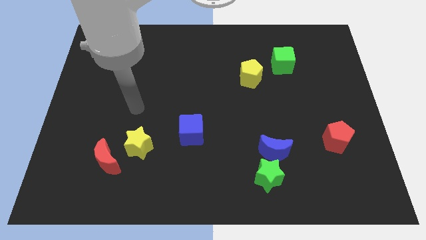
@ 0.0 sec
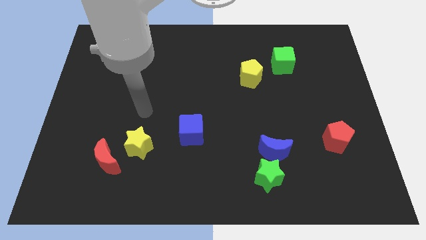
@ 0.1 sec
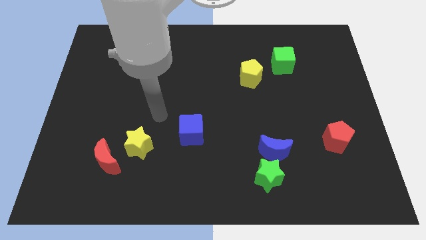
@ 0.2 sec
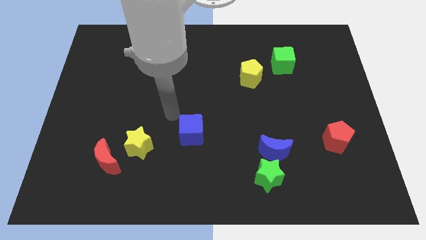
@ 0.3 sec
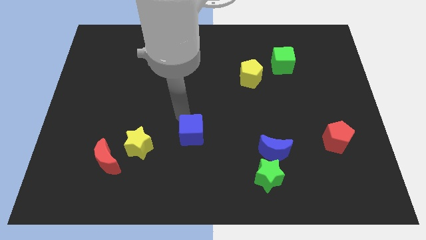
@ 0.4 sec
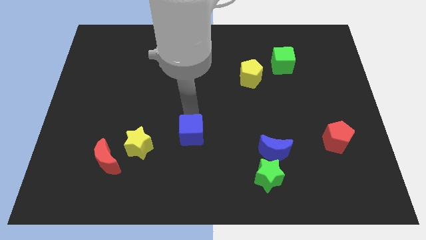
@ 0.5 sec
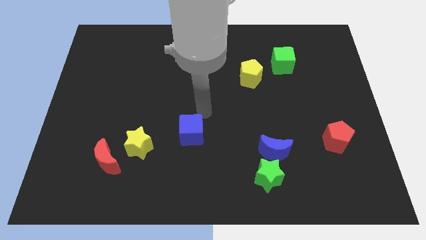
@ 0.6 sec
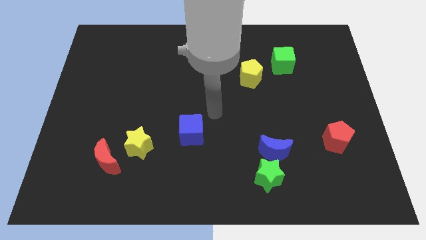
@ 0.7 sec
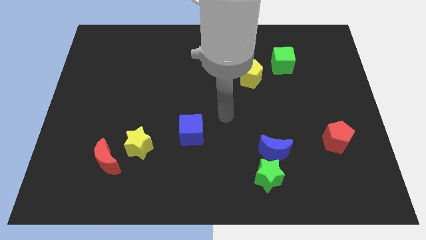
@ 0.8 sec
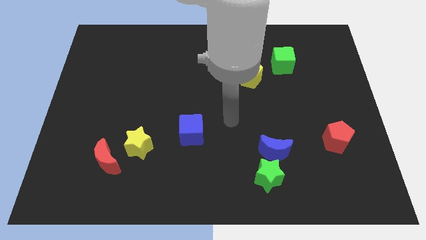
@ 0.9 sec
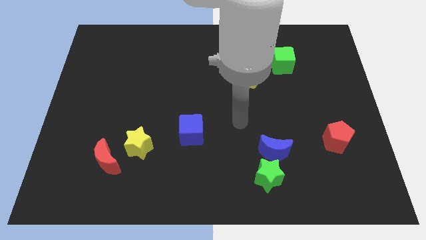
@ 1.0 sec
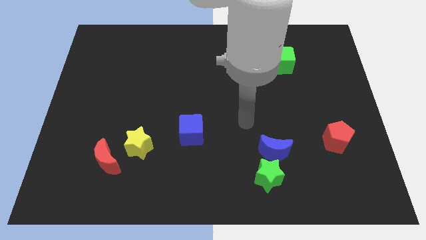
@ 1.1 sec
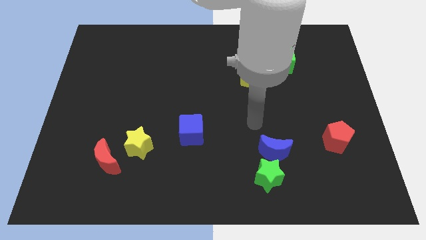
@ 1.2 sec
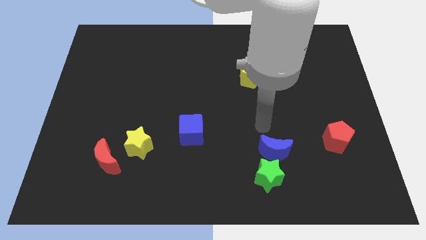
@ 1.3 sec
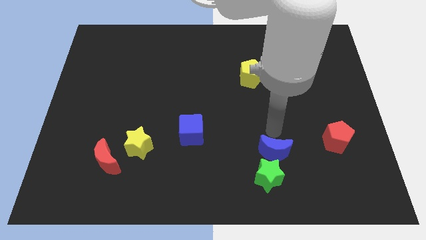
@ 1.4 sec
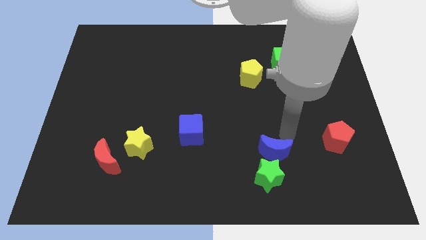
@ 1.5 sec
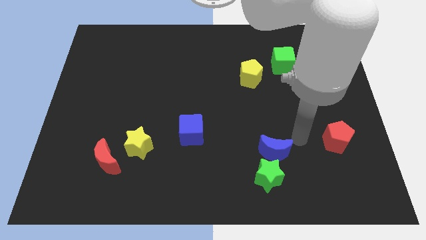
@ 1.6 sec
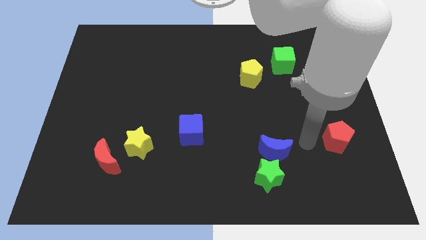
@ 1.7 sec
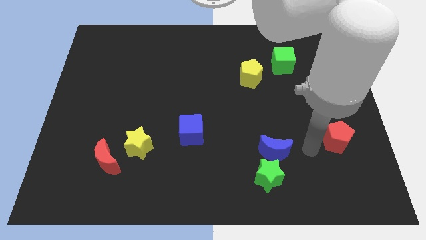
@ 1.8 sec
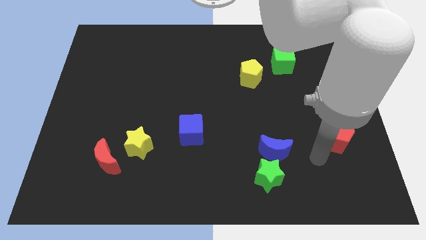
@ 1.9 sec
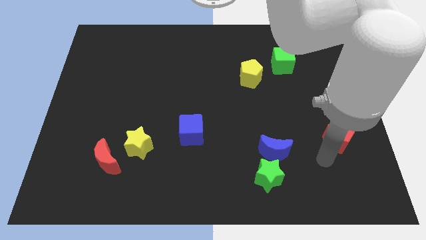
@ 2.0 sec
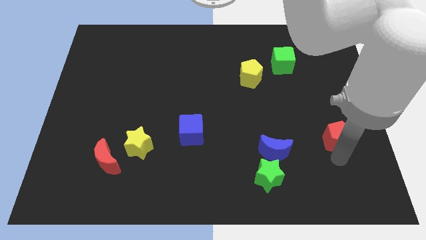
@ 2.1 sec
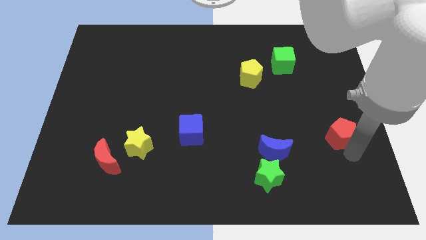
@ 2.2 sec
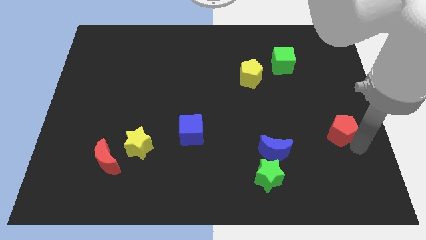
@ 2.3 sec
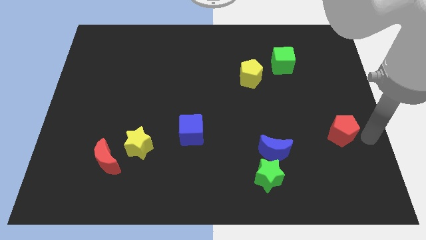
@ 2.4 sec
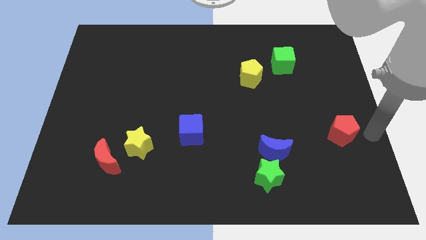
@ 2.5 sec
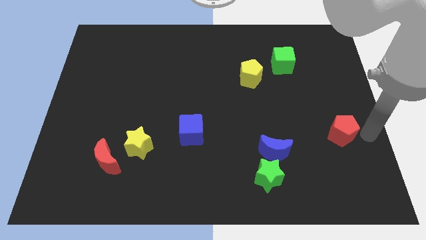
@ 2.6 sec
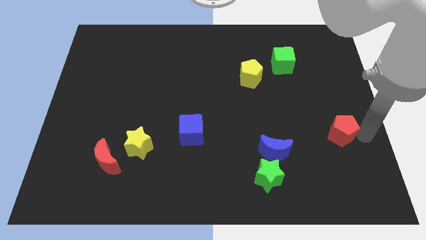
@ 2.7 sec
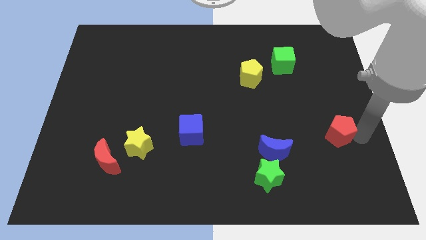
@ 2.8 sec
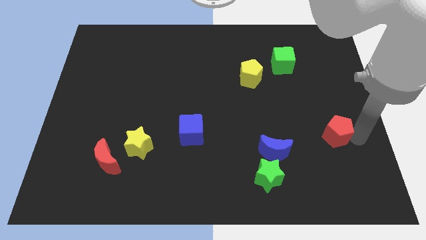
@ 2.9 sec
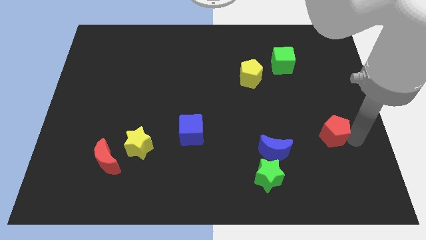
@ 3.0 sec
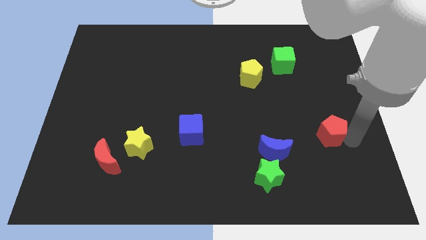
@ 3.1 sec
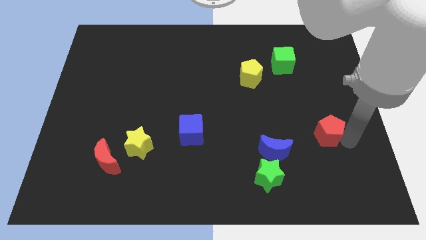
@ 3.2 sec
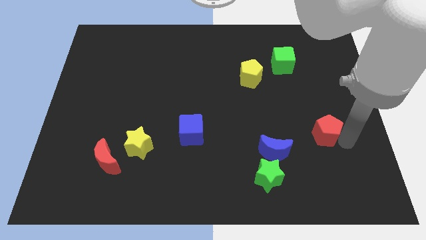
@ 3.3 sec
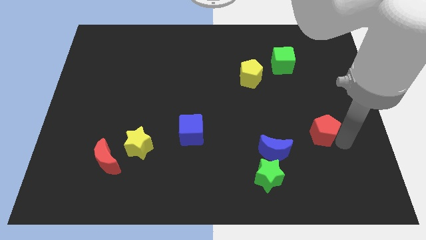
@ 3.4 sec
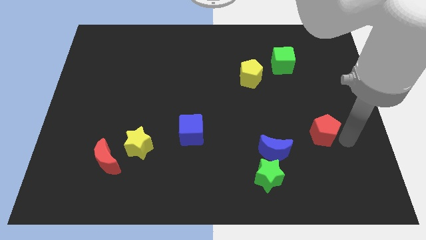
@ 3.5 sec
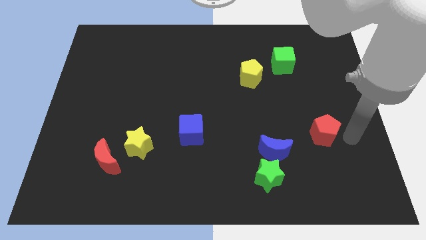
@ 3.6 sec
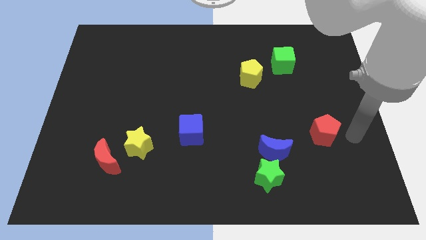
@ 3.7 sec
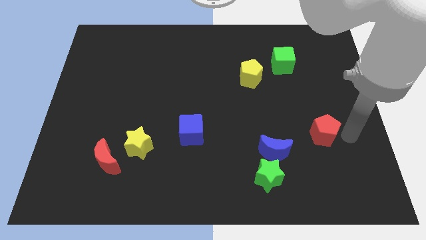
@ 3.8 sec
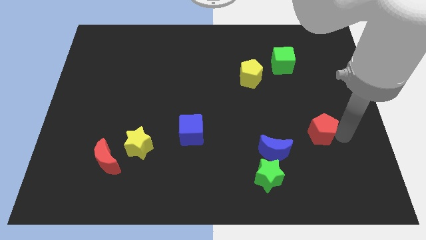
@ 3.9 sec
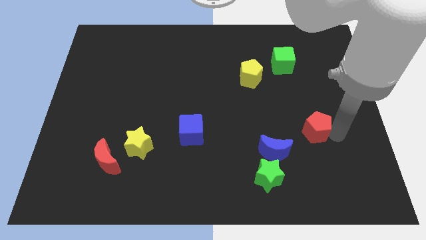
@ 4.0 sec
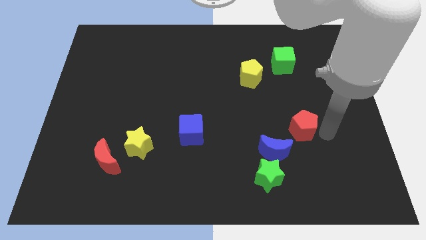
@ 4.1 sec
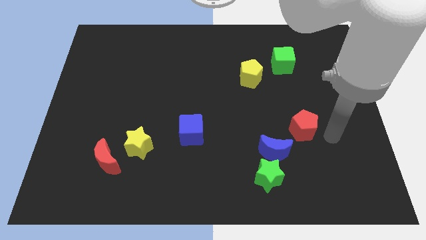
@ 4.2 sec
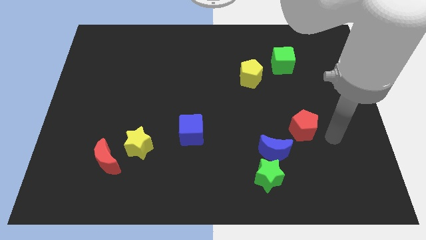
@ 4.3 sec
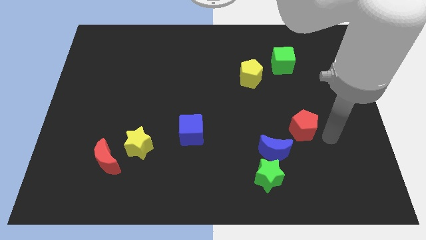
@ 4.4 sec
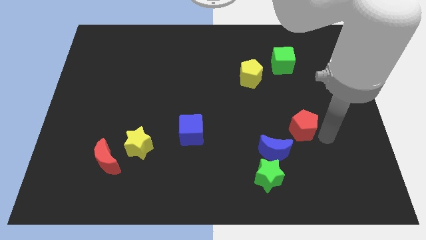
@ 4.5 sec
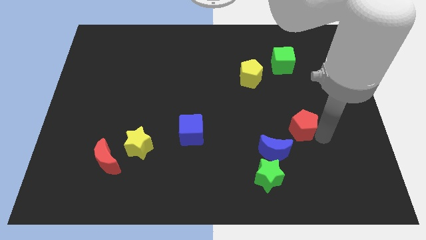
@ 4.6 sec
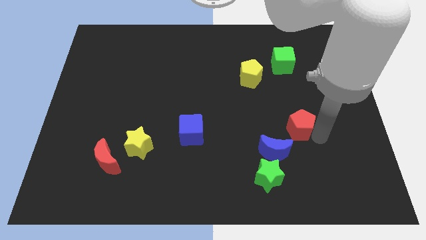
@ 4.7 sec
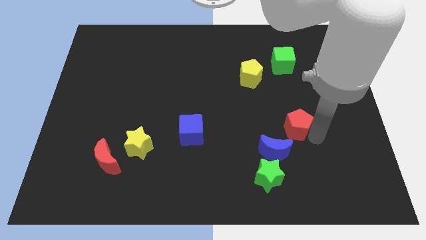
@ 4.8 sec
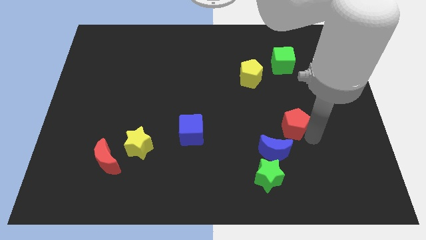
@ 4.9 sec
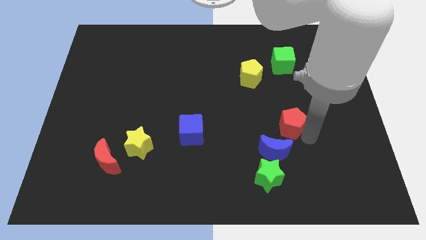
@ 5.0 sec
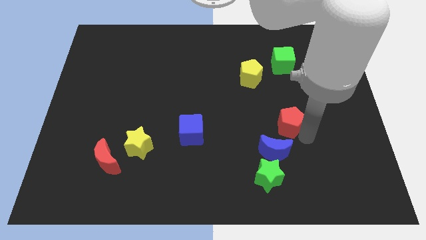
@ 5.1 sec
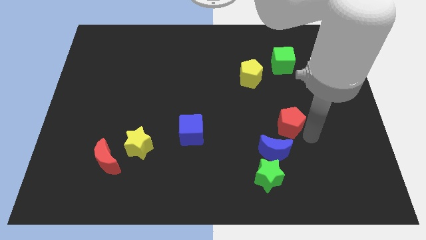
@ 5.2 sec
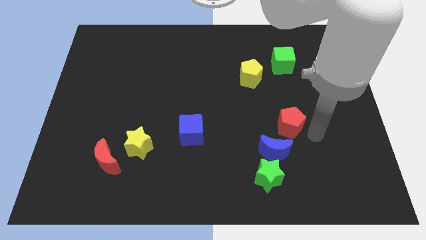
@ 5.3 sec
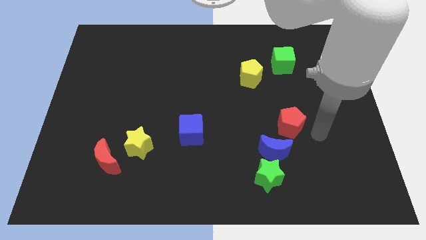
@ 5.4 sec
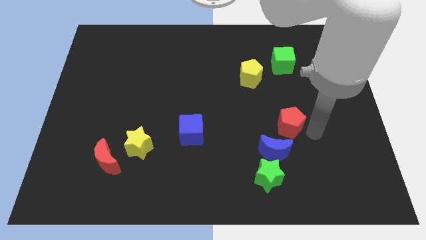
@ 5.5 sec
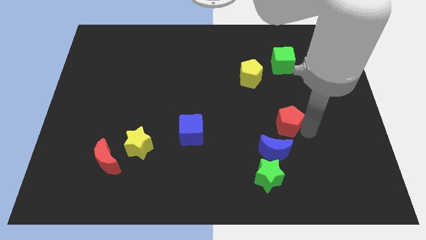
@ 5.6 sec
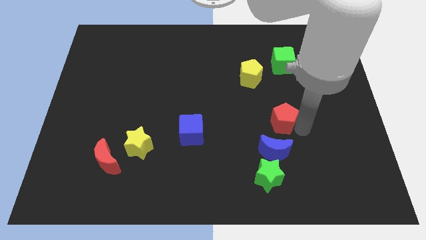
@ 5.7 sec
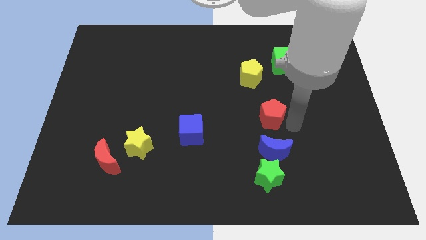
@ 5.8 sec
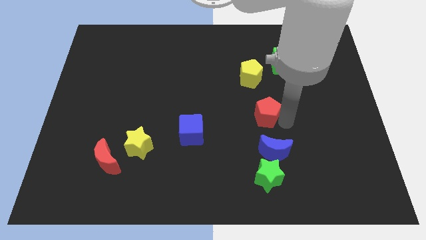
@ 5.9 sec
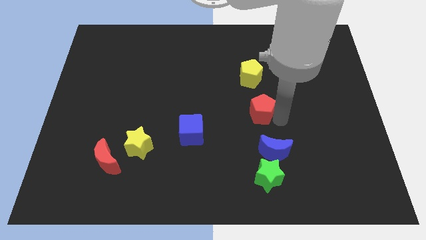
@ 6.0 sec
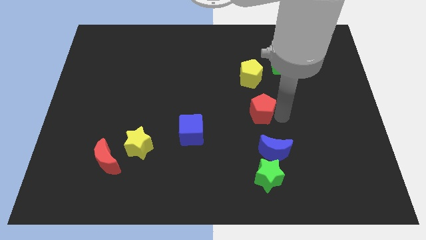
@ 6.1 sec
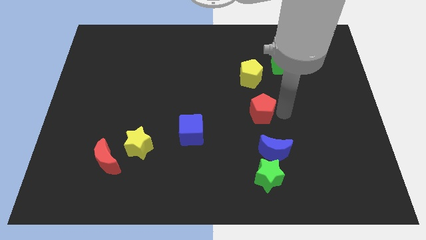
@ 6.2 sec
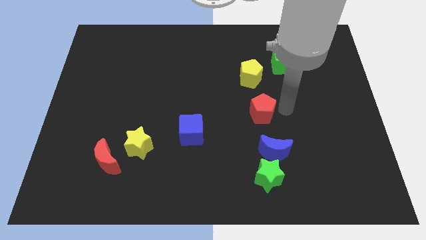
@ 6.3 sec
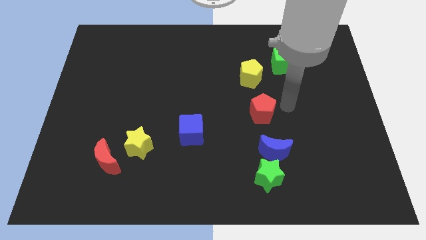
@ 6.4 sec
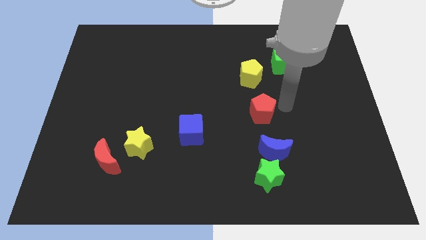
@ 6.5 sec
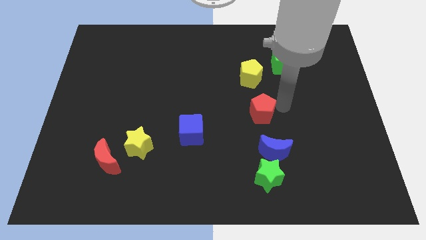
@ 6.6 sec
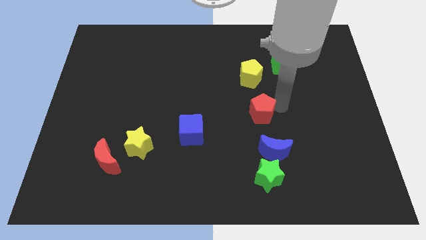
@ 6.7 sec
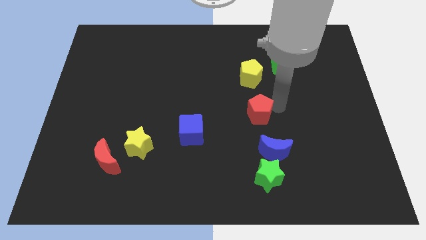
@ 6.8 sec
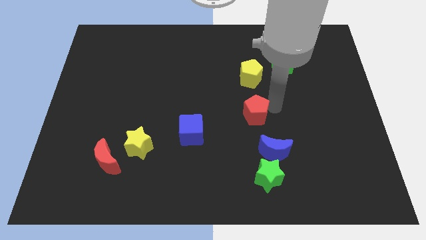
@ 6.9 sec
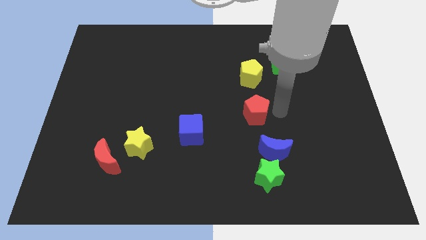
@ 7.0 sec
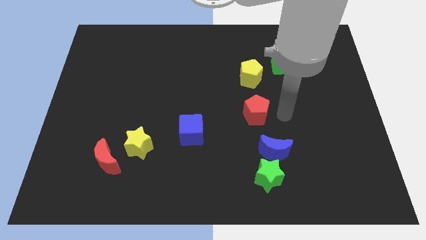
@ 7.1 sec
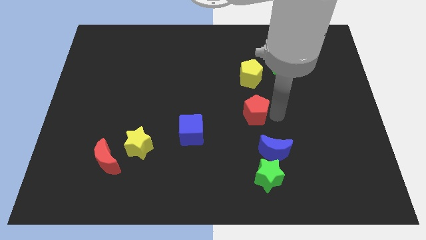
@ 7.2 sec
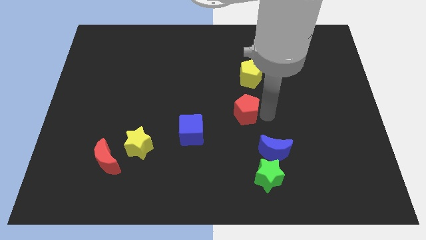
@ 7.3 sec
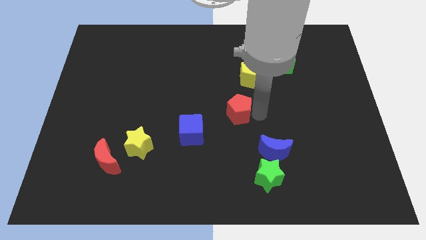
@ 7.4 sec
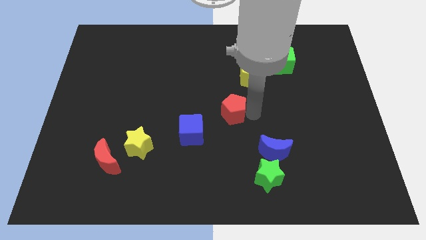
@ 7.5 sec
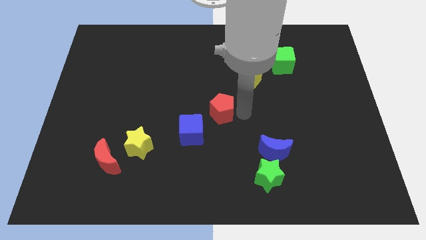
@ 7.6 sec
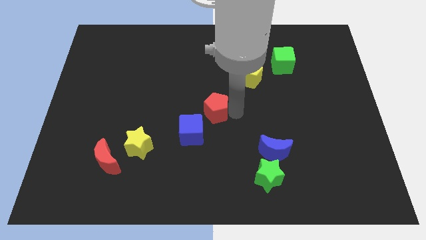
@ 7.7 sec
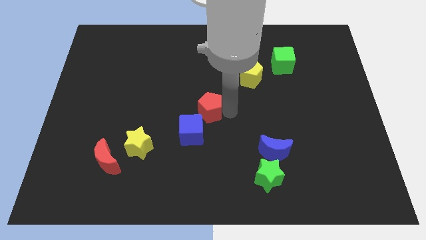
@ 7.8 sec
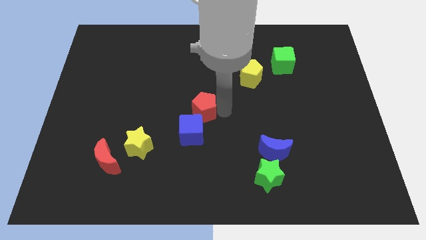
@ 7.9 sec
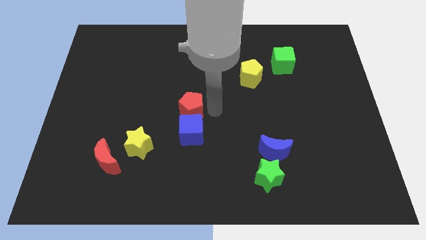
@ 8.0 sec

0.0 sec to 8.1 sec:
push the red pentagon to the top left side of the blue cube
